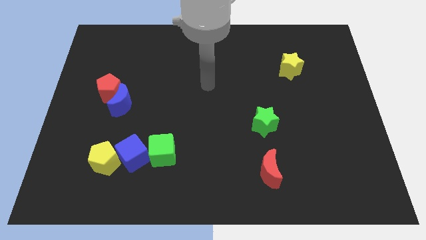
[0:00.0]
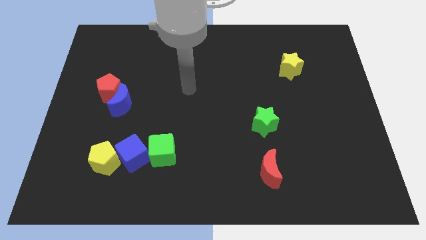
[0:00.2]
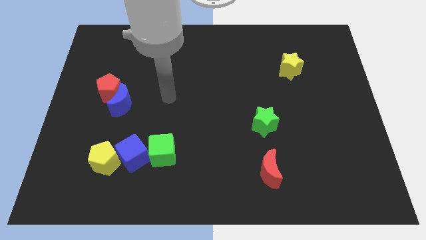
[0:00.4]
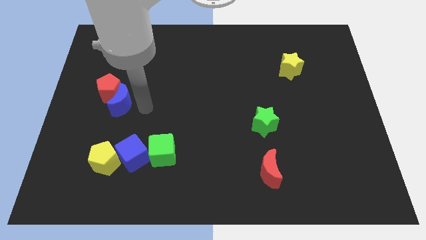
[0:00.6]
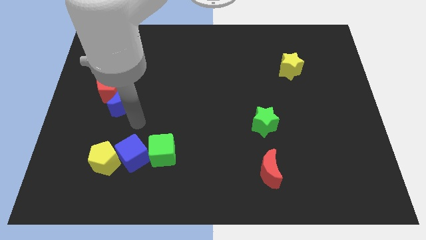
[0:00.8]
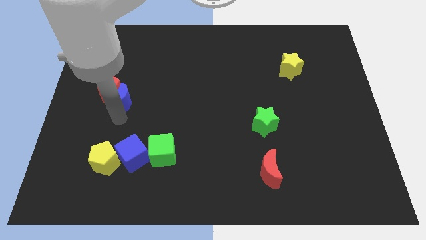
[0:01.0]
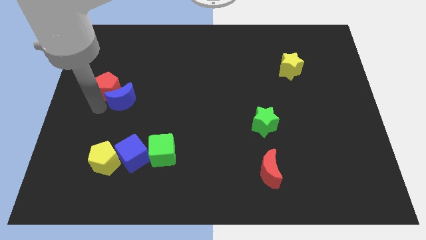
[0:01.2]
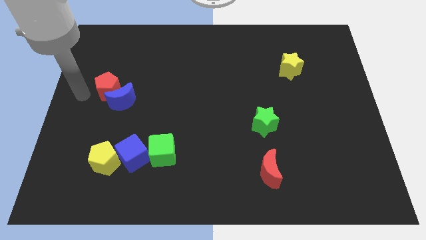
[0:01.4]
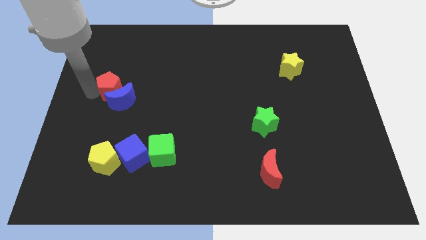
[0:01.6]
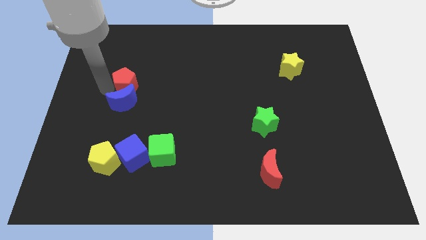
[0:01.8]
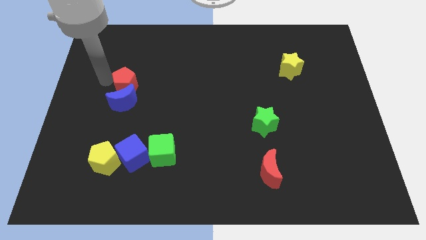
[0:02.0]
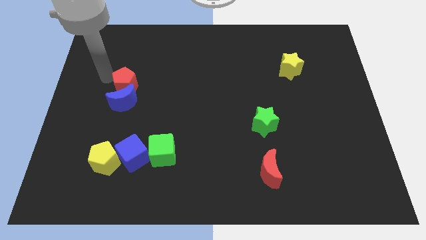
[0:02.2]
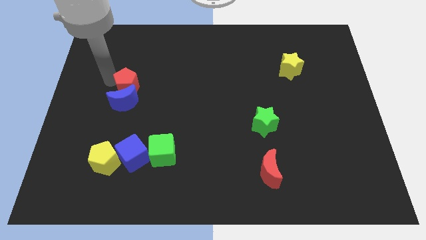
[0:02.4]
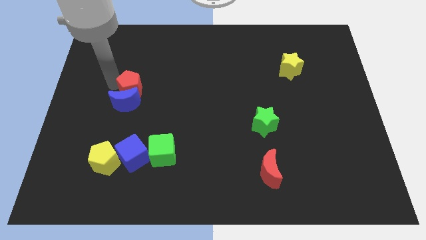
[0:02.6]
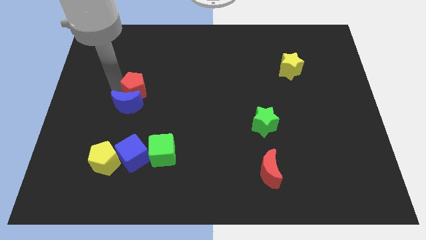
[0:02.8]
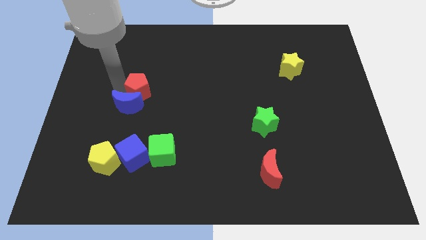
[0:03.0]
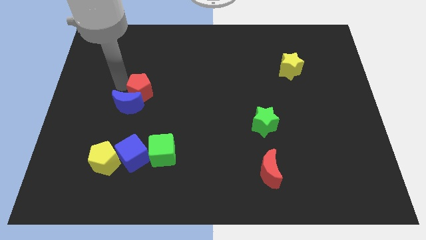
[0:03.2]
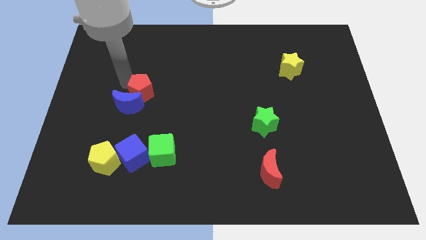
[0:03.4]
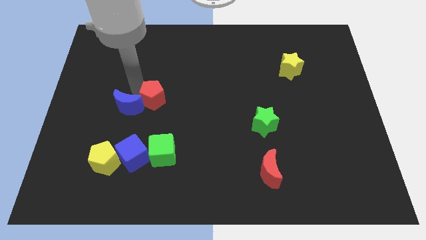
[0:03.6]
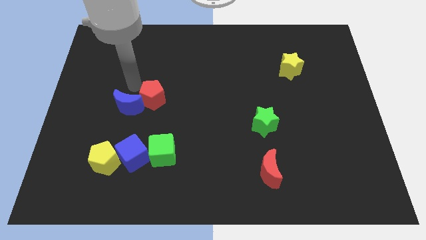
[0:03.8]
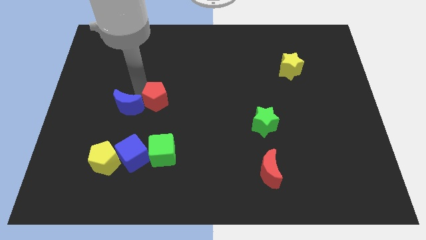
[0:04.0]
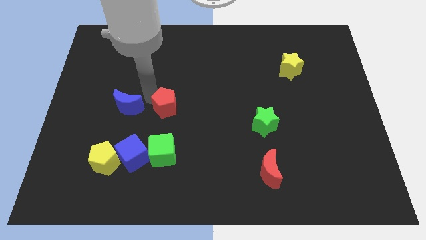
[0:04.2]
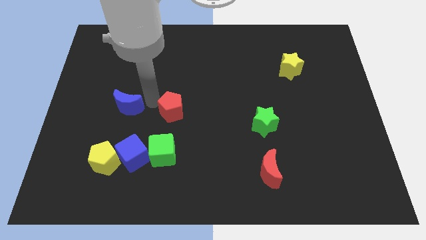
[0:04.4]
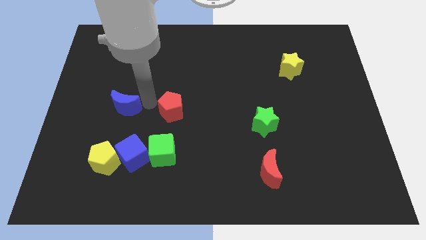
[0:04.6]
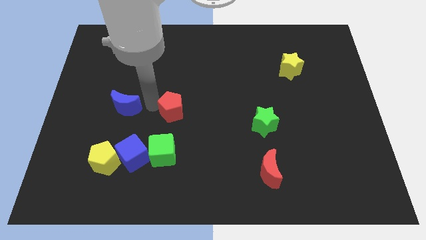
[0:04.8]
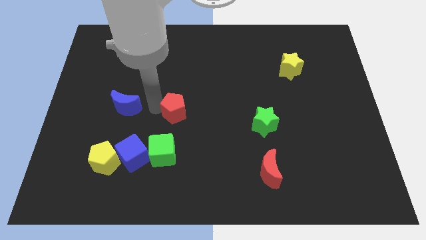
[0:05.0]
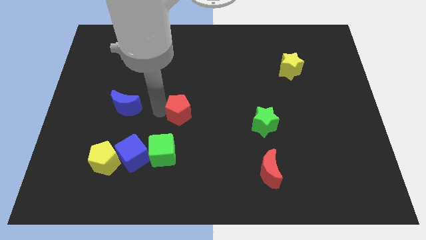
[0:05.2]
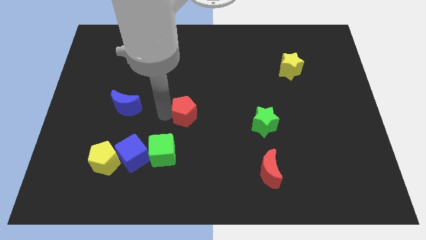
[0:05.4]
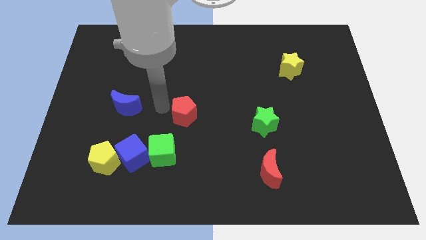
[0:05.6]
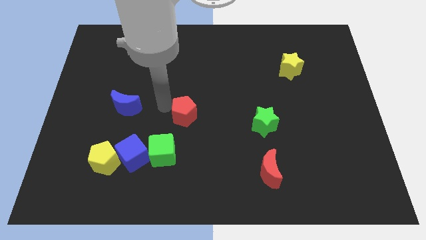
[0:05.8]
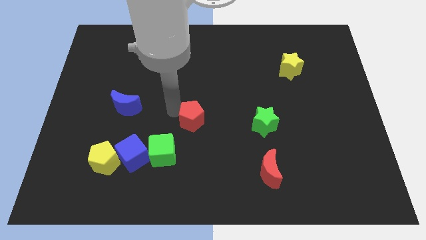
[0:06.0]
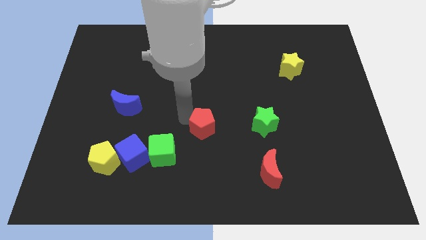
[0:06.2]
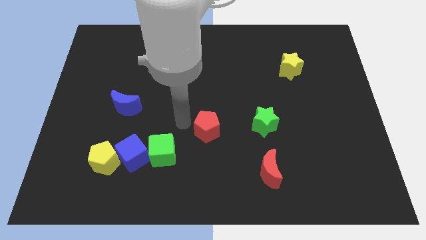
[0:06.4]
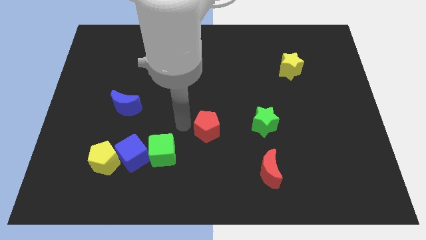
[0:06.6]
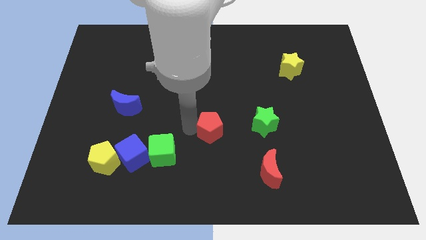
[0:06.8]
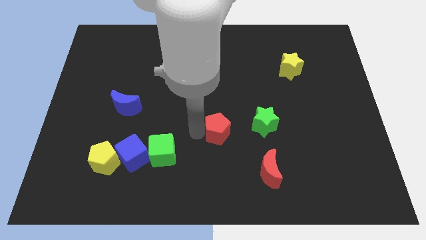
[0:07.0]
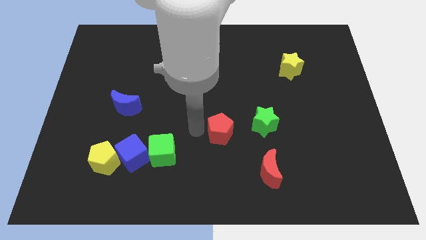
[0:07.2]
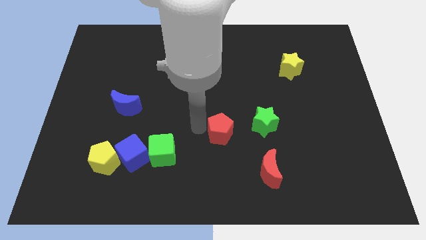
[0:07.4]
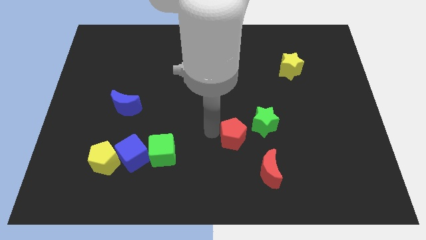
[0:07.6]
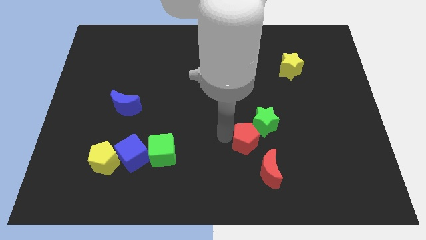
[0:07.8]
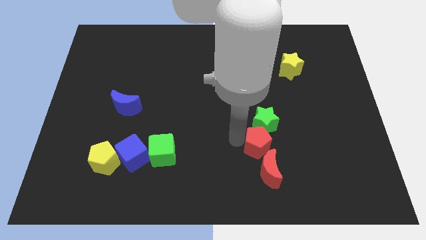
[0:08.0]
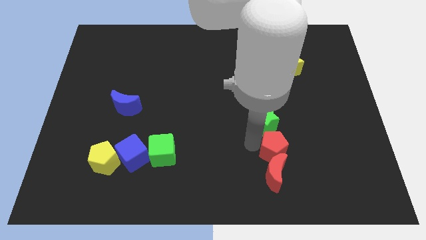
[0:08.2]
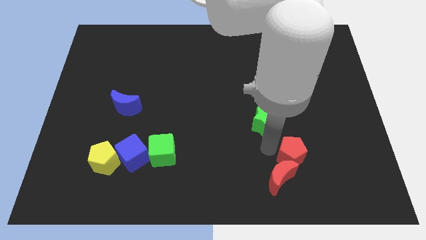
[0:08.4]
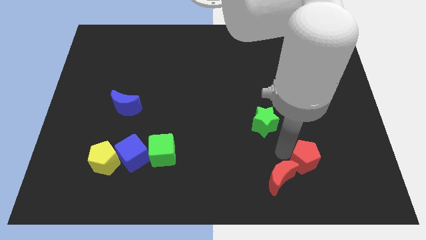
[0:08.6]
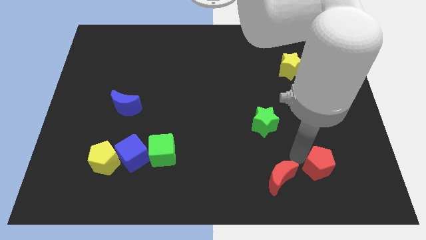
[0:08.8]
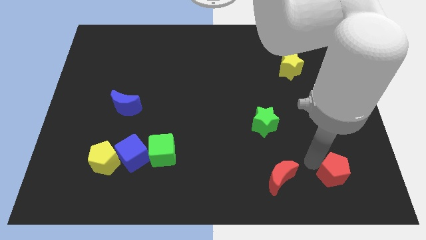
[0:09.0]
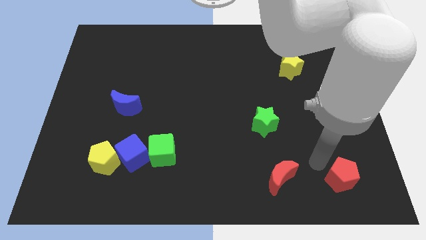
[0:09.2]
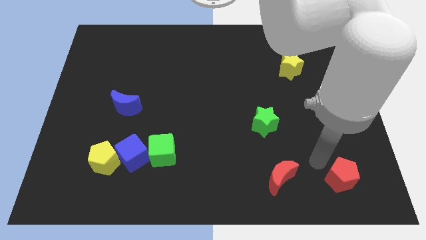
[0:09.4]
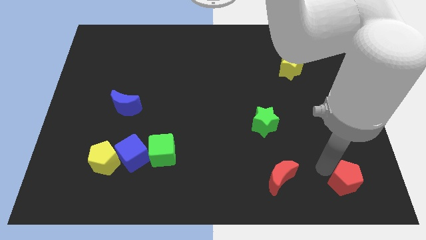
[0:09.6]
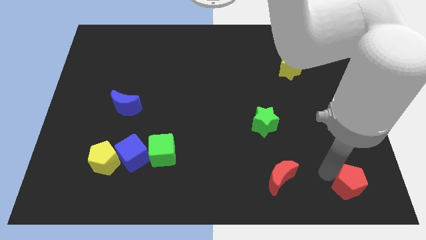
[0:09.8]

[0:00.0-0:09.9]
put the red pentagon to the bottom right

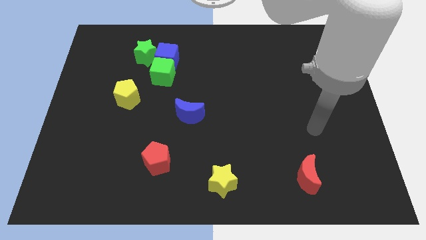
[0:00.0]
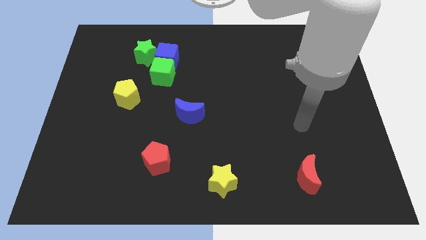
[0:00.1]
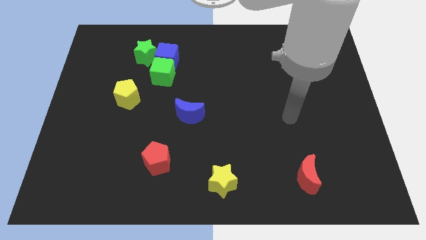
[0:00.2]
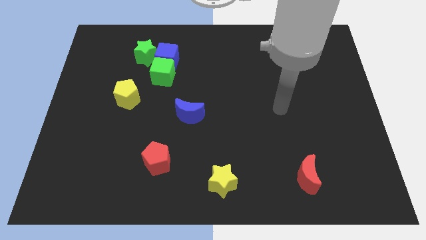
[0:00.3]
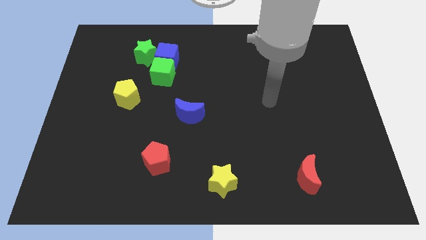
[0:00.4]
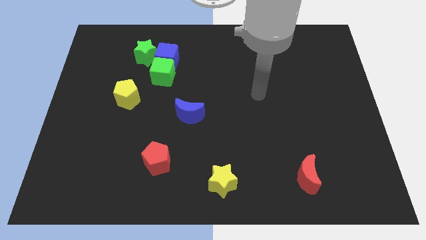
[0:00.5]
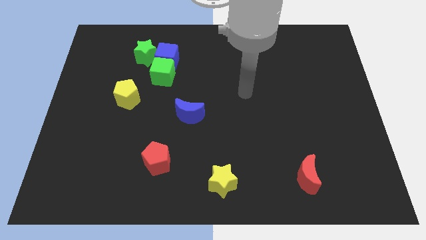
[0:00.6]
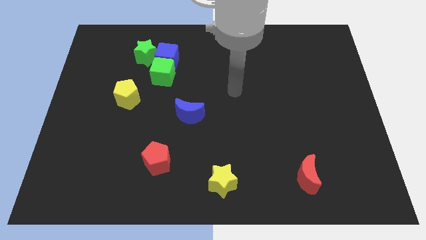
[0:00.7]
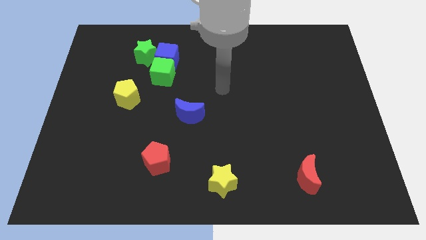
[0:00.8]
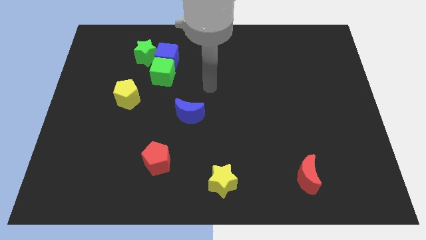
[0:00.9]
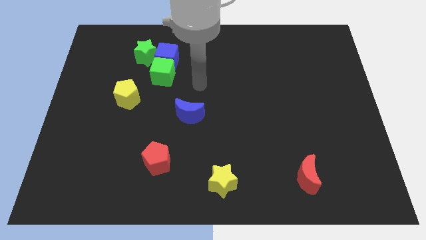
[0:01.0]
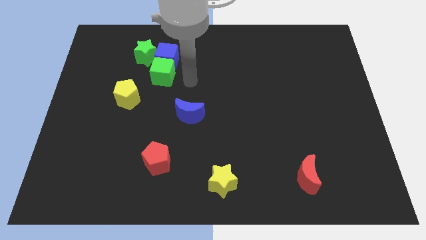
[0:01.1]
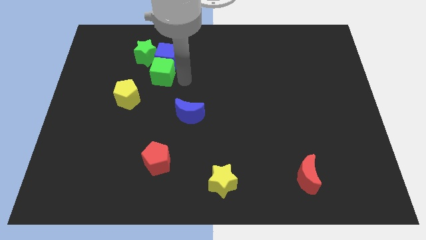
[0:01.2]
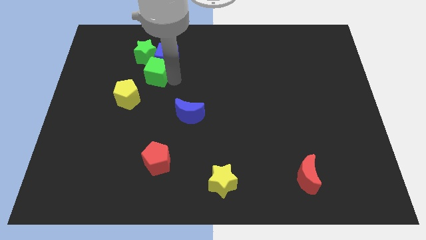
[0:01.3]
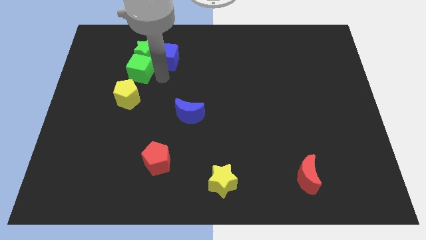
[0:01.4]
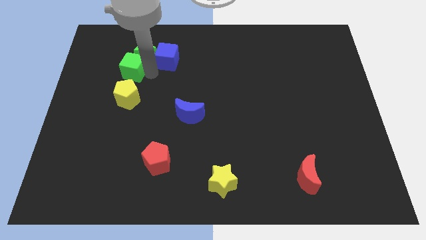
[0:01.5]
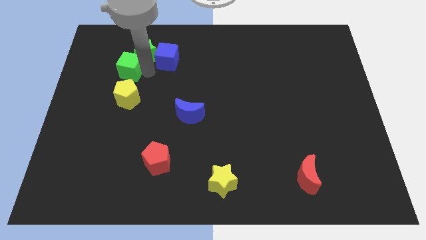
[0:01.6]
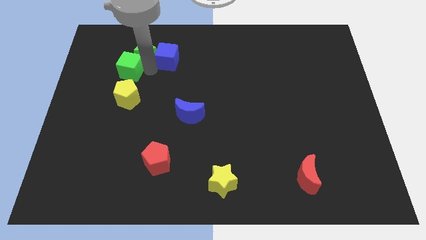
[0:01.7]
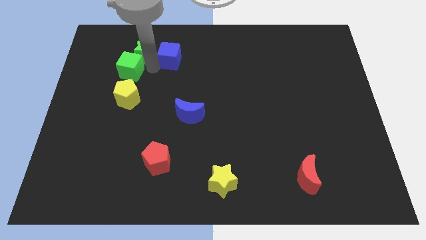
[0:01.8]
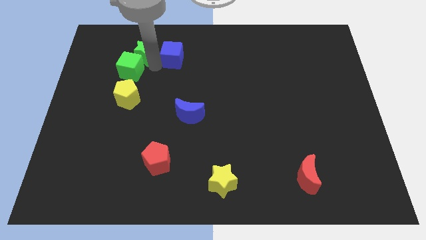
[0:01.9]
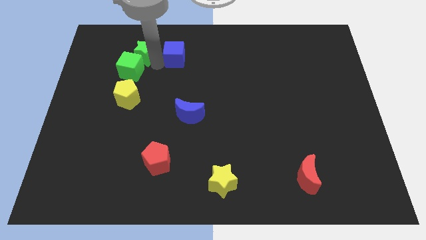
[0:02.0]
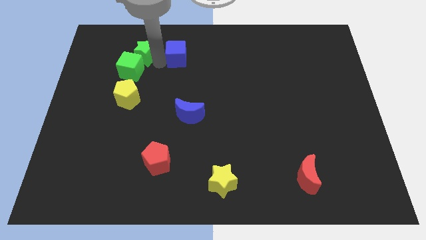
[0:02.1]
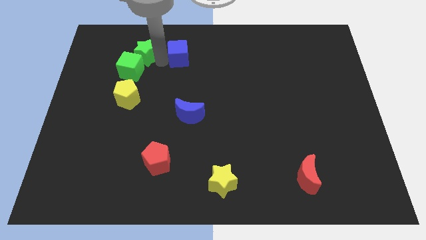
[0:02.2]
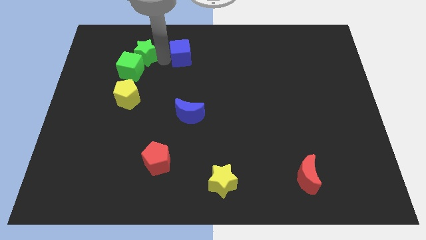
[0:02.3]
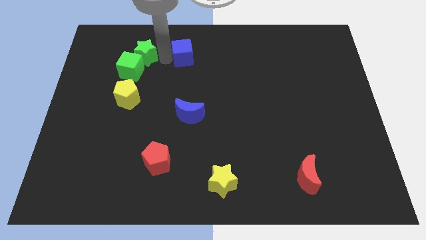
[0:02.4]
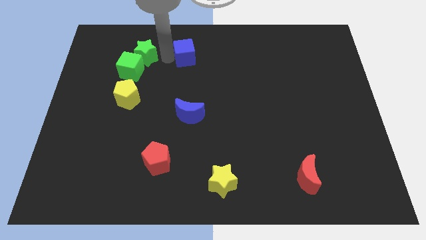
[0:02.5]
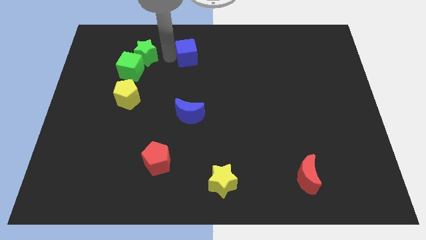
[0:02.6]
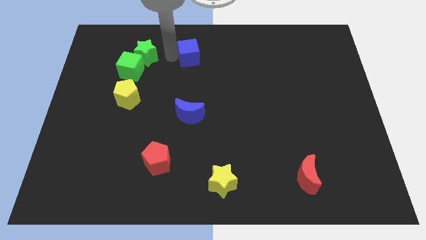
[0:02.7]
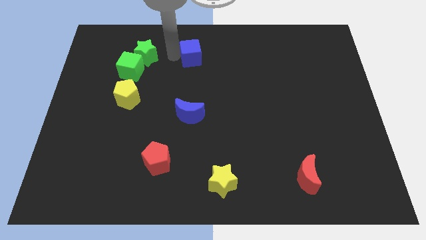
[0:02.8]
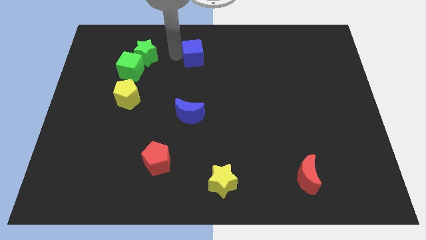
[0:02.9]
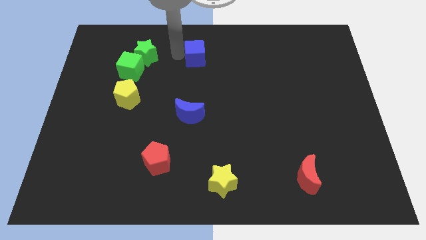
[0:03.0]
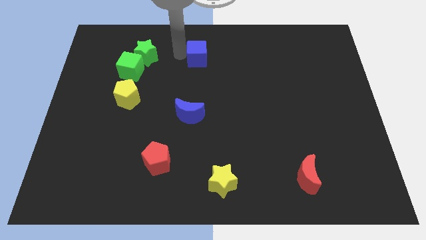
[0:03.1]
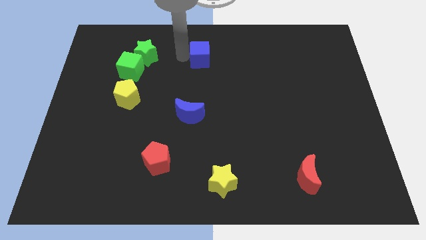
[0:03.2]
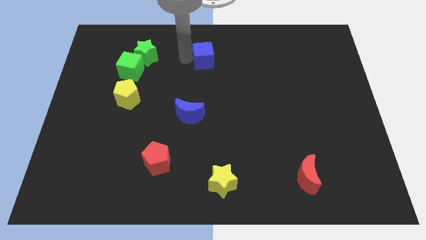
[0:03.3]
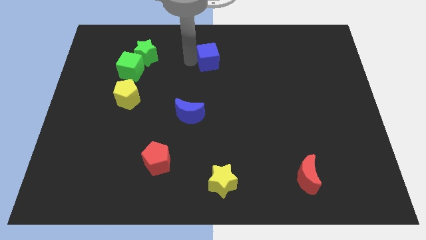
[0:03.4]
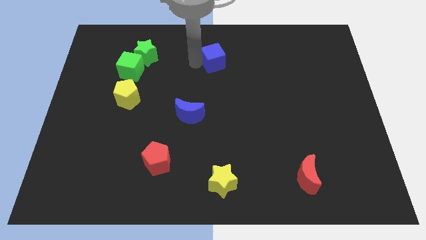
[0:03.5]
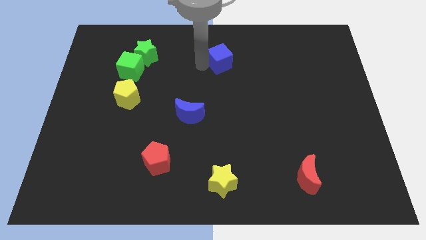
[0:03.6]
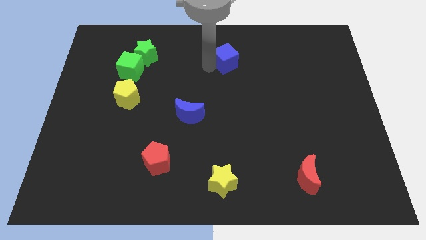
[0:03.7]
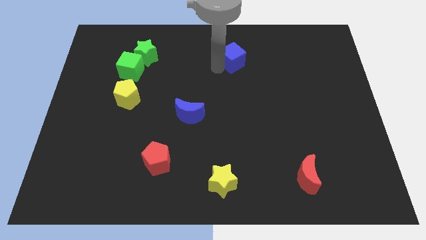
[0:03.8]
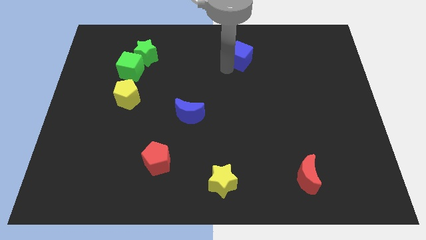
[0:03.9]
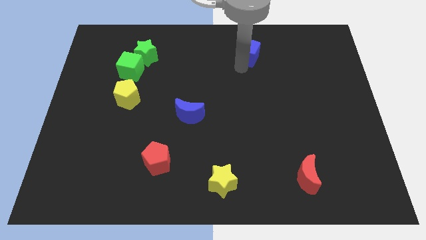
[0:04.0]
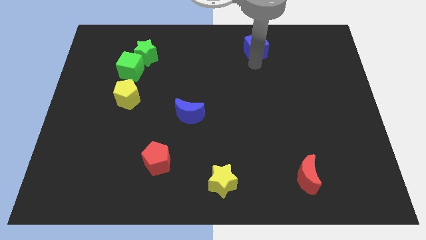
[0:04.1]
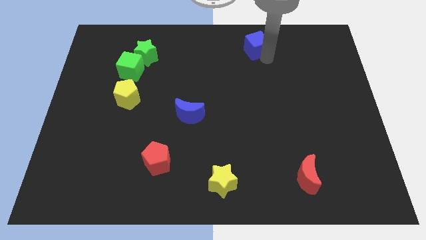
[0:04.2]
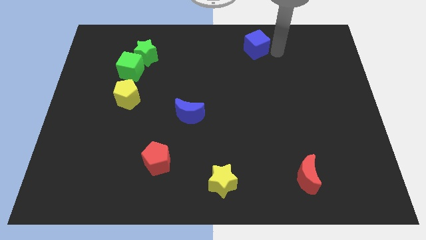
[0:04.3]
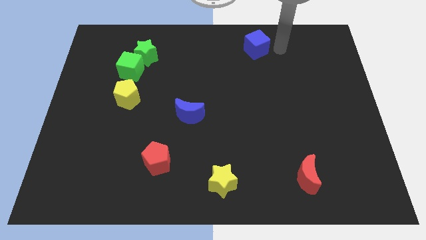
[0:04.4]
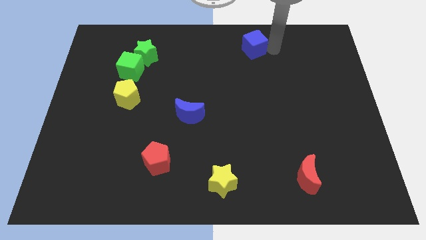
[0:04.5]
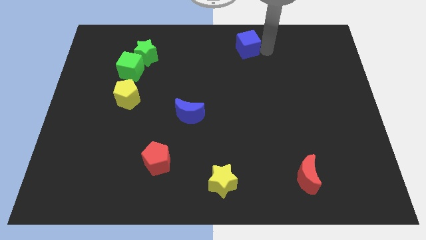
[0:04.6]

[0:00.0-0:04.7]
put the blue cube to the top
